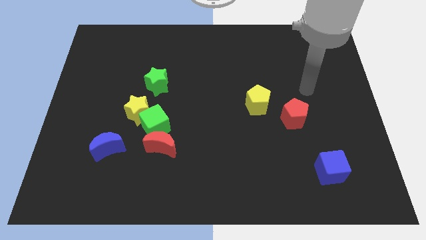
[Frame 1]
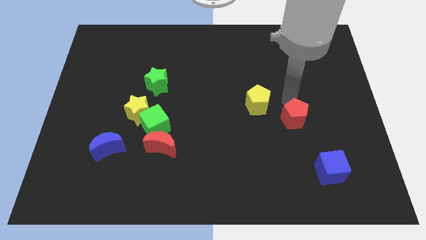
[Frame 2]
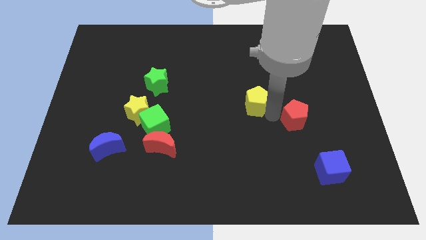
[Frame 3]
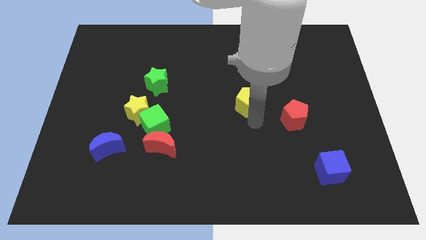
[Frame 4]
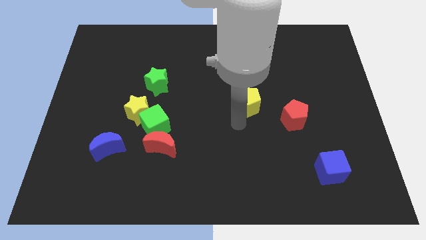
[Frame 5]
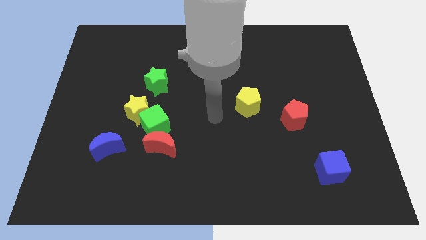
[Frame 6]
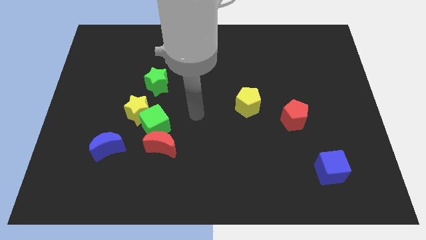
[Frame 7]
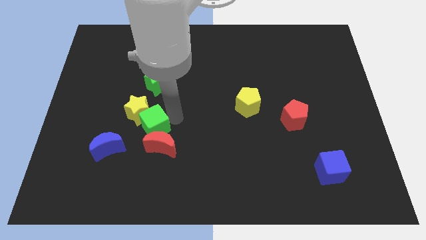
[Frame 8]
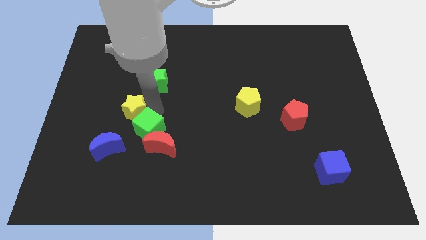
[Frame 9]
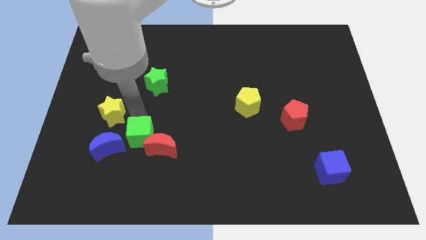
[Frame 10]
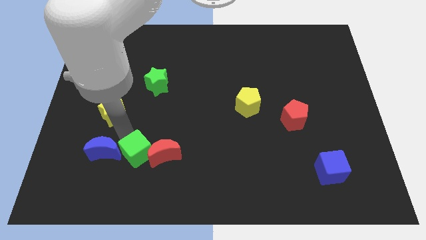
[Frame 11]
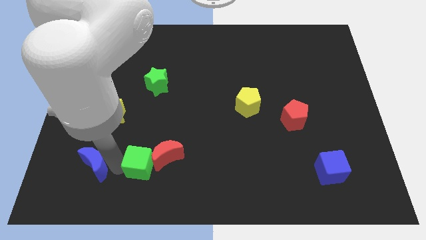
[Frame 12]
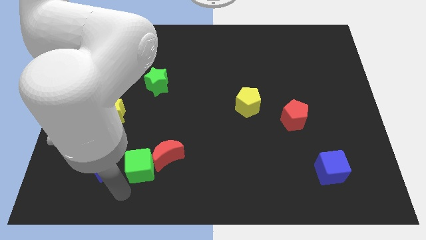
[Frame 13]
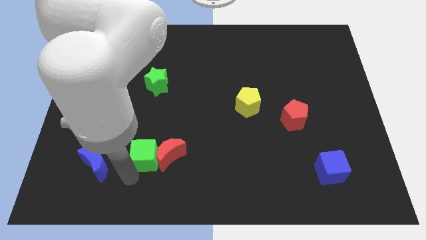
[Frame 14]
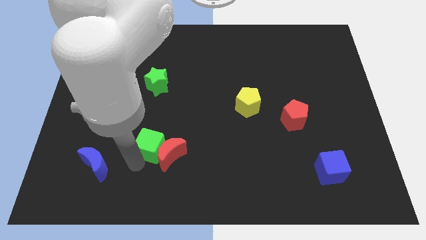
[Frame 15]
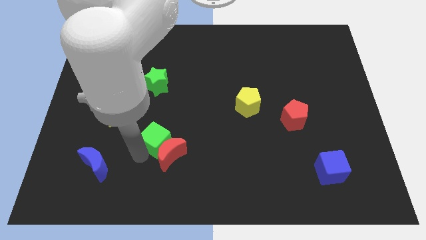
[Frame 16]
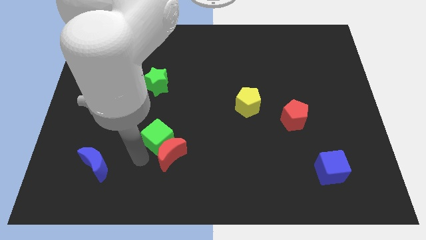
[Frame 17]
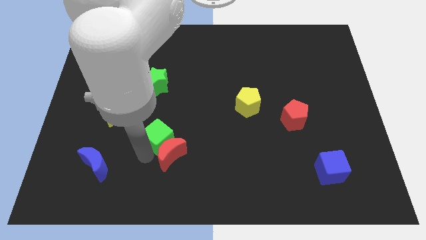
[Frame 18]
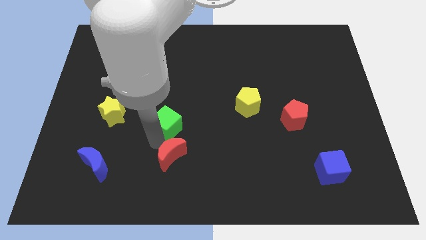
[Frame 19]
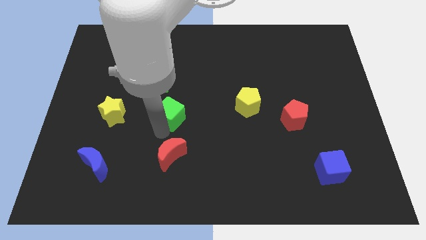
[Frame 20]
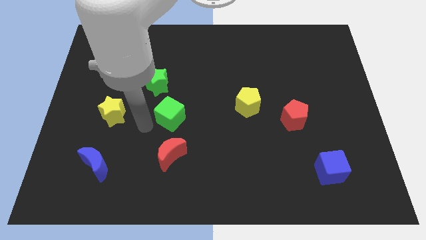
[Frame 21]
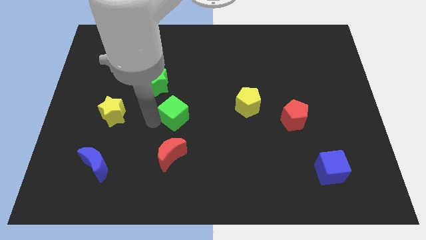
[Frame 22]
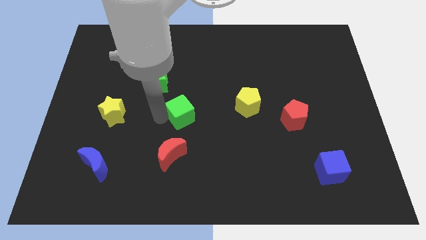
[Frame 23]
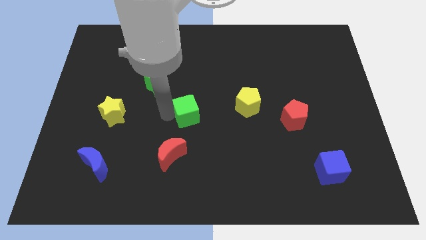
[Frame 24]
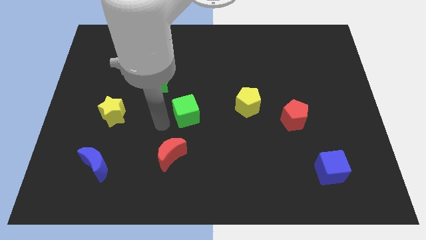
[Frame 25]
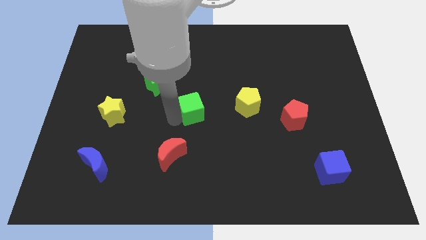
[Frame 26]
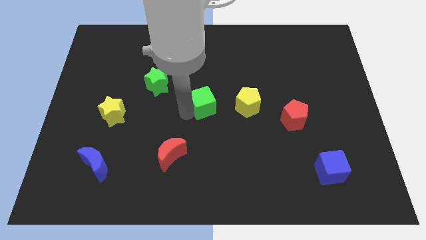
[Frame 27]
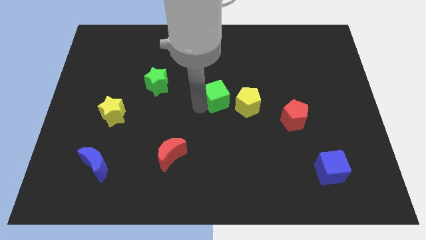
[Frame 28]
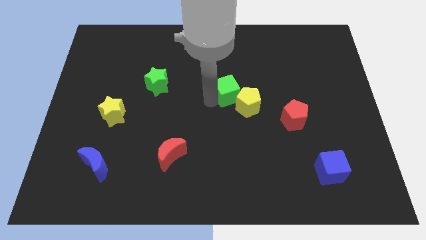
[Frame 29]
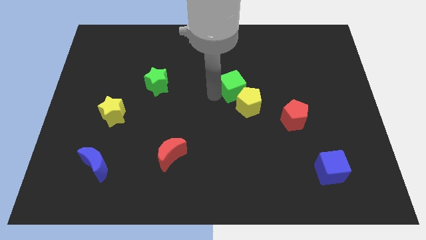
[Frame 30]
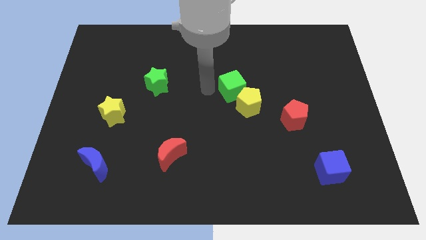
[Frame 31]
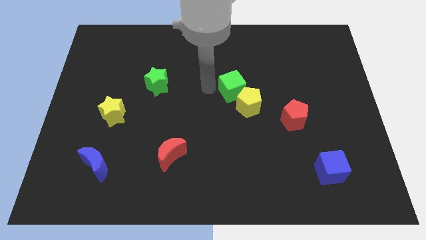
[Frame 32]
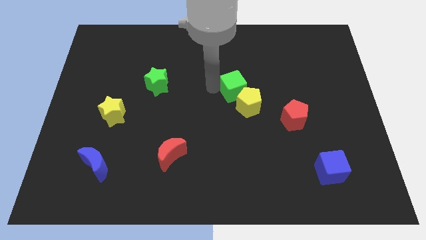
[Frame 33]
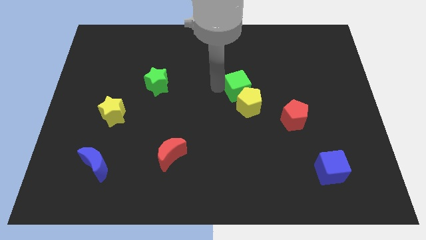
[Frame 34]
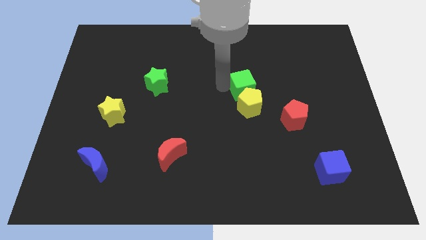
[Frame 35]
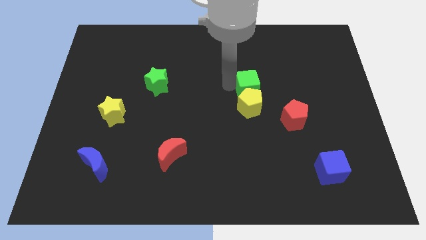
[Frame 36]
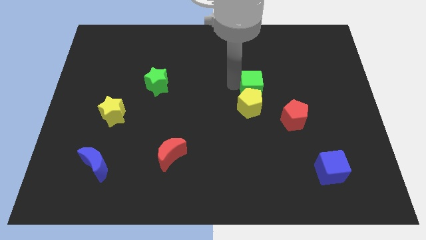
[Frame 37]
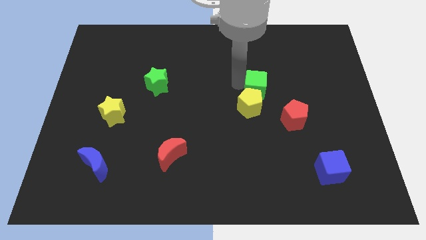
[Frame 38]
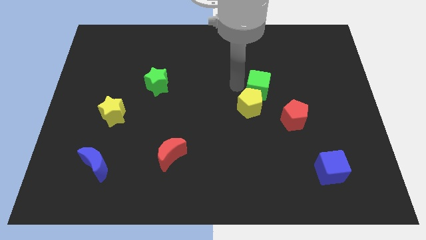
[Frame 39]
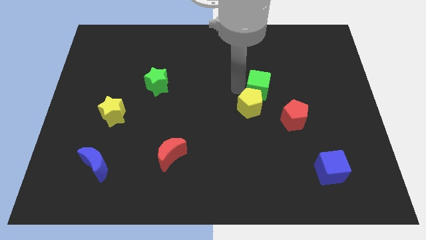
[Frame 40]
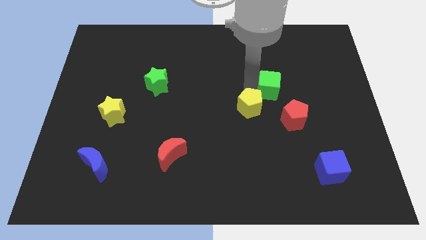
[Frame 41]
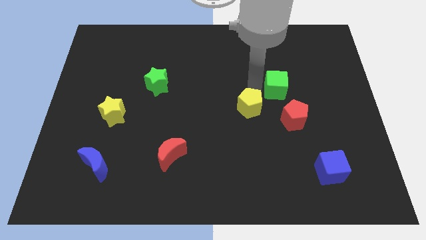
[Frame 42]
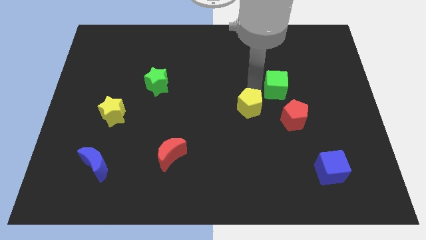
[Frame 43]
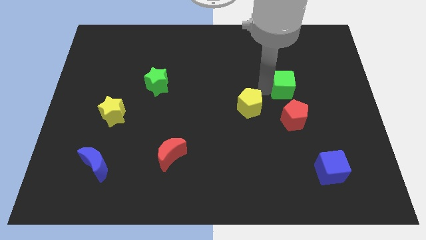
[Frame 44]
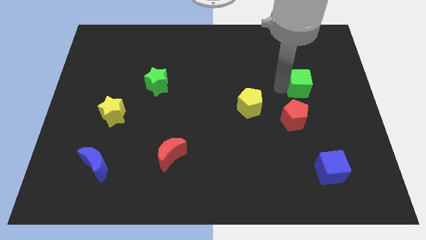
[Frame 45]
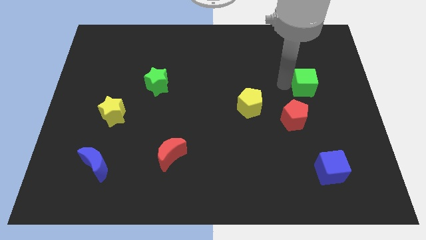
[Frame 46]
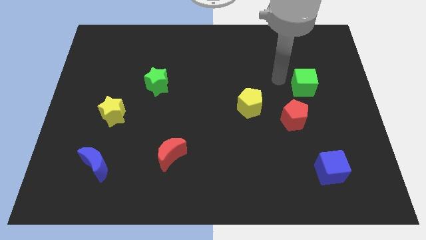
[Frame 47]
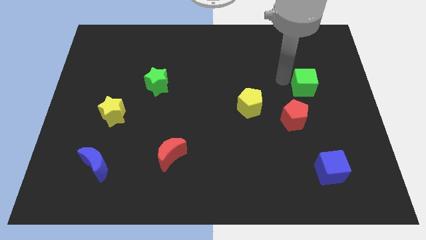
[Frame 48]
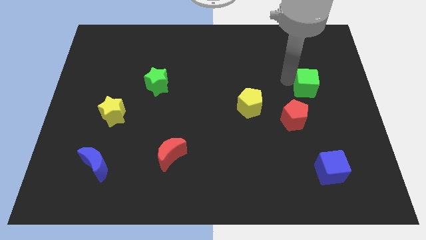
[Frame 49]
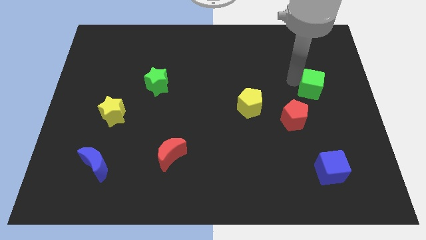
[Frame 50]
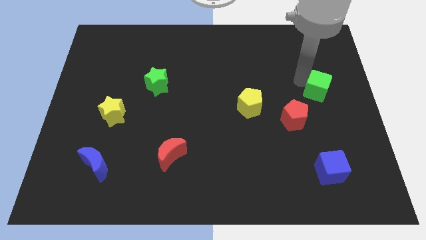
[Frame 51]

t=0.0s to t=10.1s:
push the green cube to the right side of the board

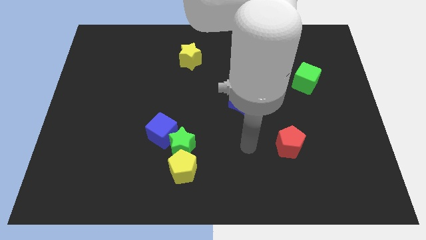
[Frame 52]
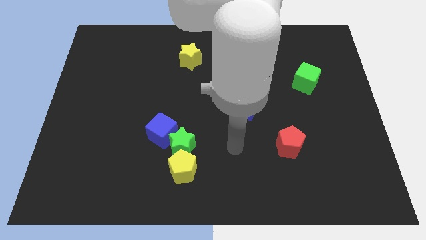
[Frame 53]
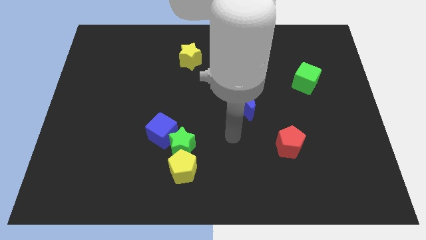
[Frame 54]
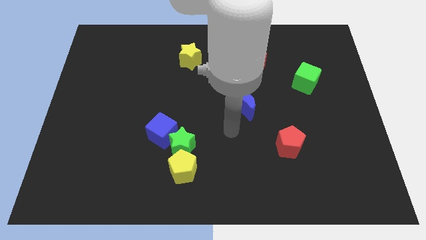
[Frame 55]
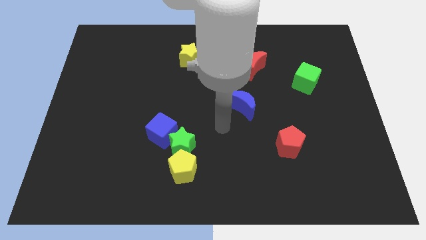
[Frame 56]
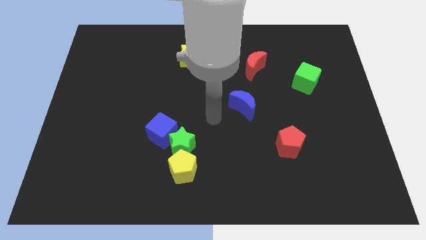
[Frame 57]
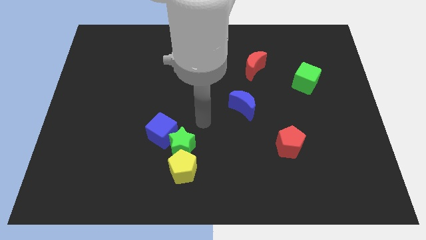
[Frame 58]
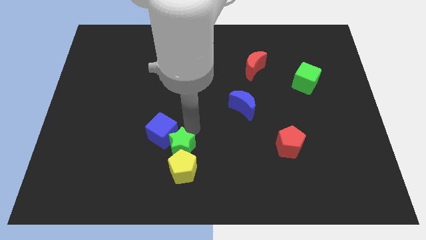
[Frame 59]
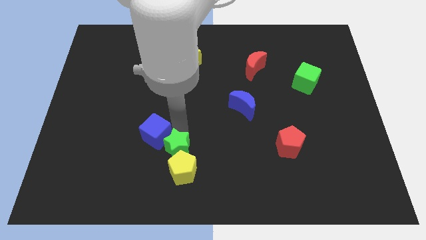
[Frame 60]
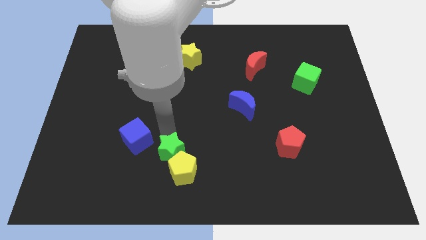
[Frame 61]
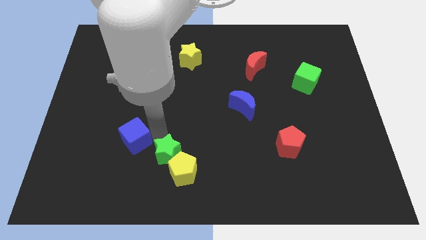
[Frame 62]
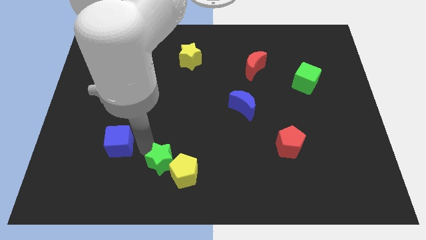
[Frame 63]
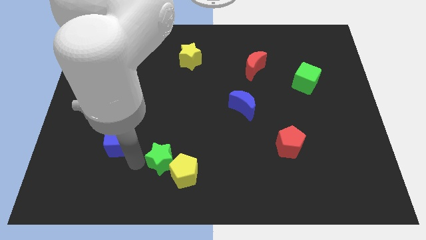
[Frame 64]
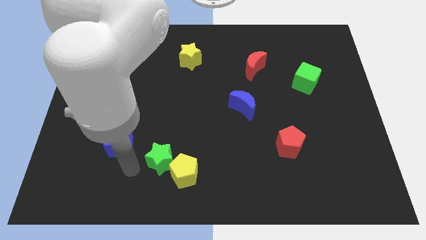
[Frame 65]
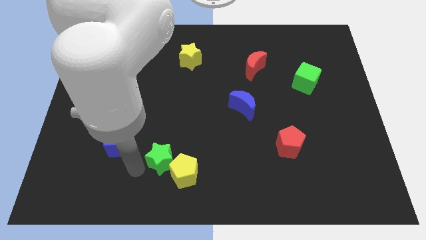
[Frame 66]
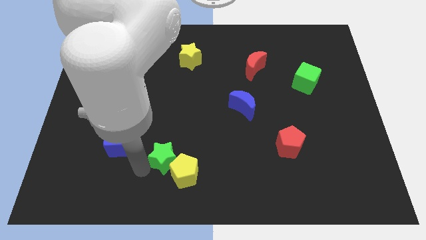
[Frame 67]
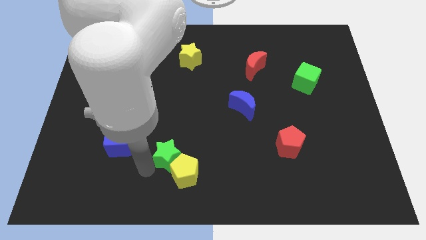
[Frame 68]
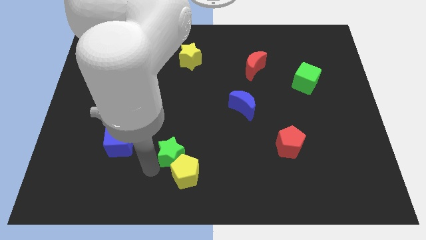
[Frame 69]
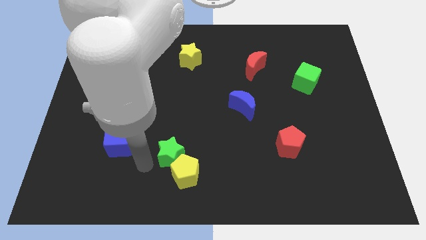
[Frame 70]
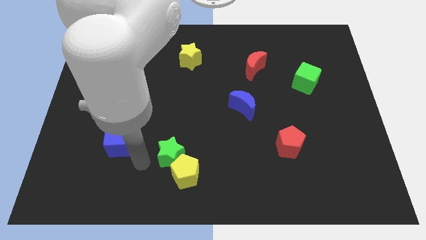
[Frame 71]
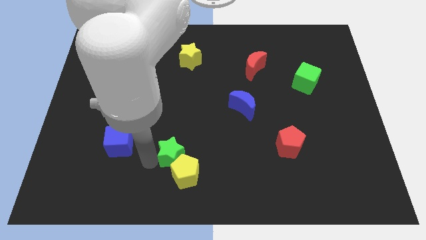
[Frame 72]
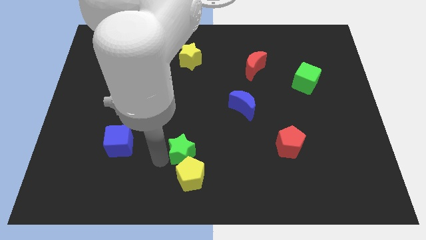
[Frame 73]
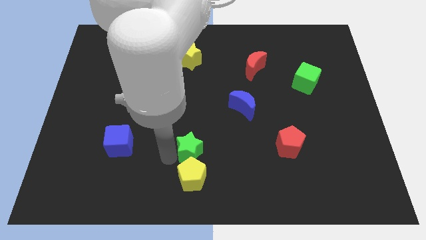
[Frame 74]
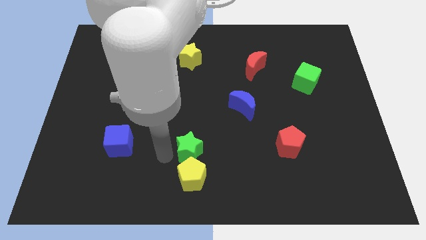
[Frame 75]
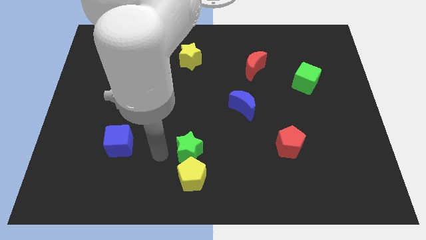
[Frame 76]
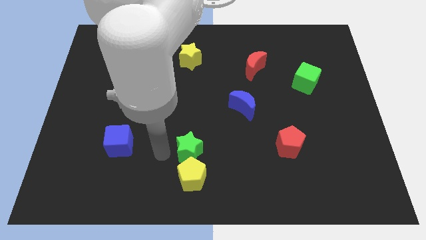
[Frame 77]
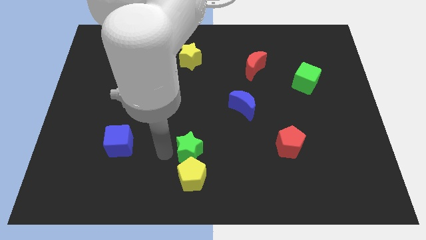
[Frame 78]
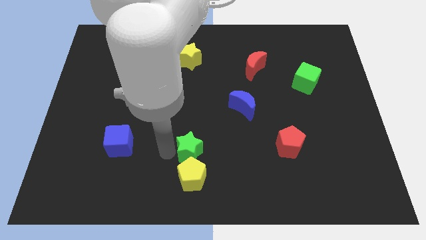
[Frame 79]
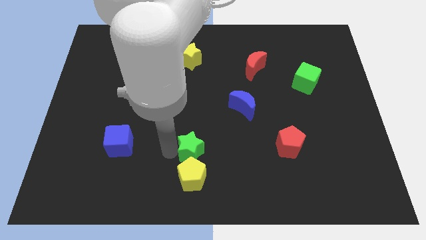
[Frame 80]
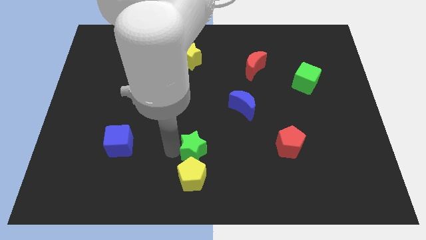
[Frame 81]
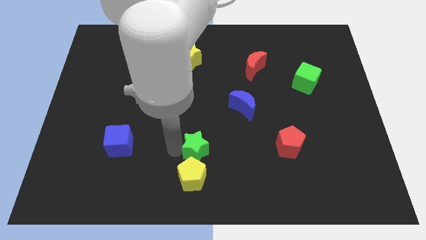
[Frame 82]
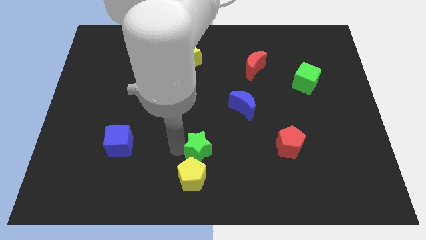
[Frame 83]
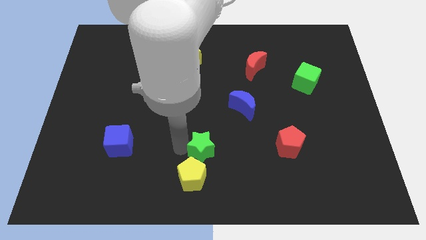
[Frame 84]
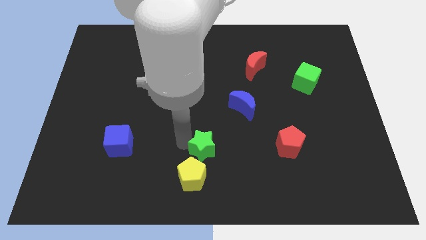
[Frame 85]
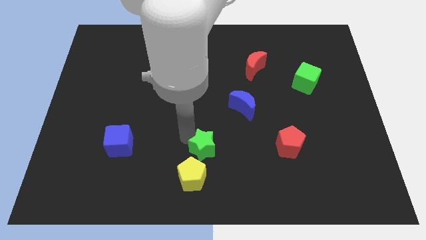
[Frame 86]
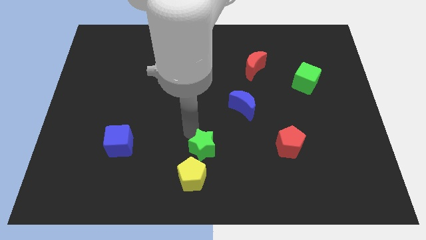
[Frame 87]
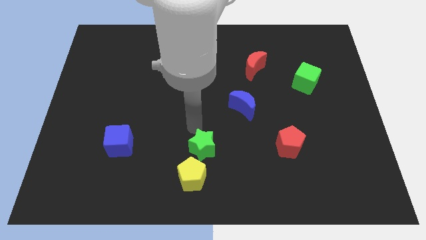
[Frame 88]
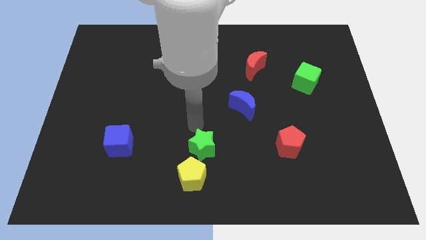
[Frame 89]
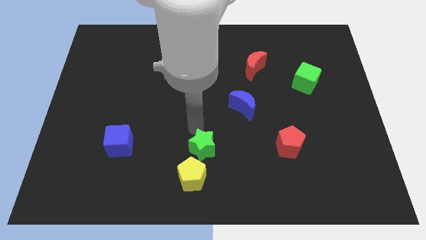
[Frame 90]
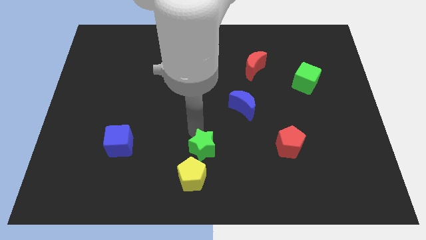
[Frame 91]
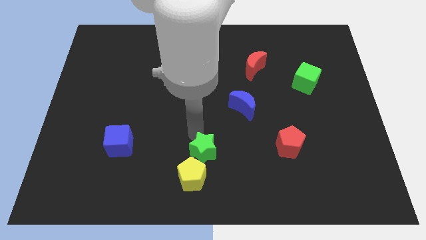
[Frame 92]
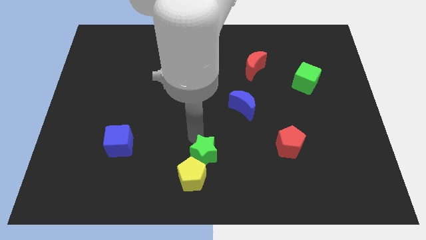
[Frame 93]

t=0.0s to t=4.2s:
move the green star to the bottom
